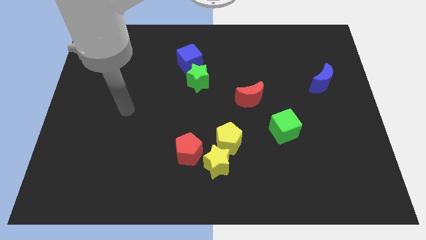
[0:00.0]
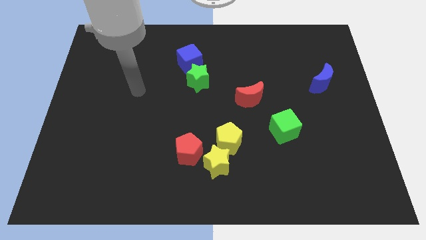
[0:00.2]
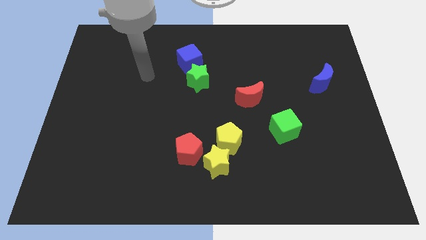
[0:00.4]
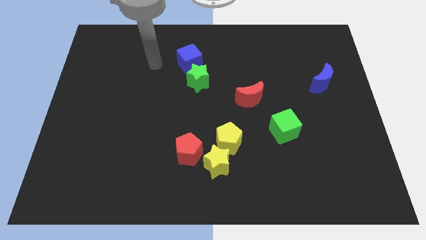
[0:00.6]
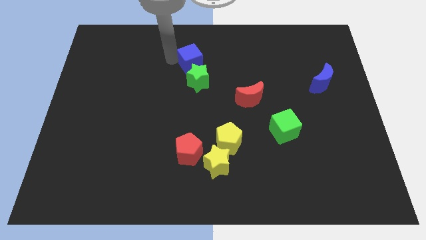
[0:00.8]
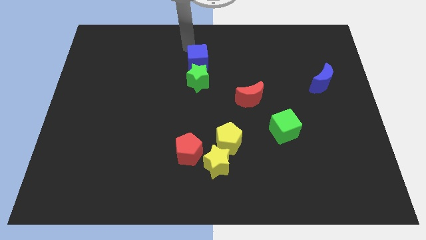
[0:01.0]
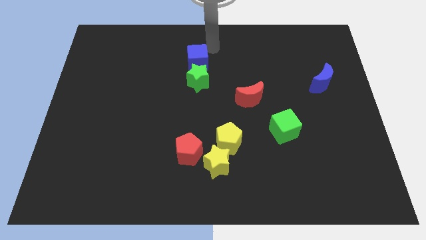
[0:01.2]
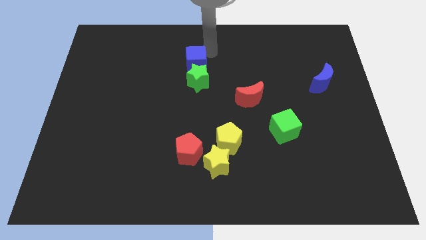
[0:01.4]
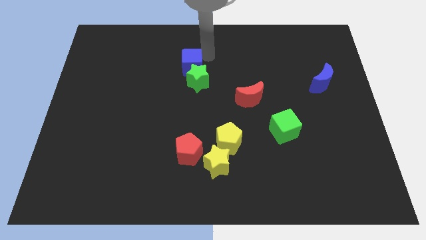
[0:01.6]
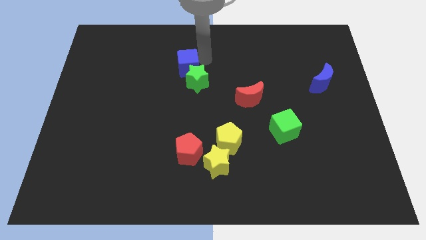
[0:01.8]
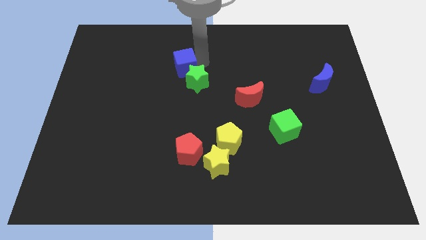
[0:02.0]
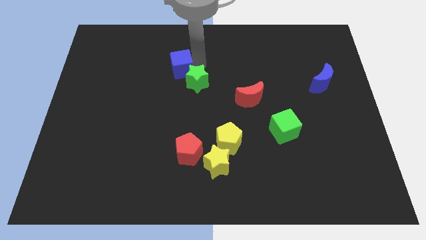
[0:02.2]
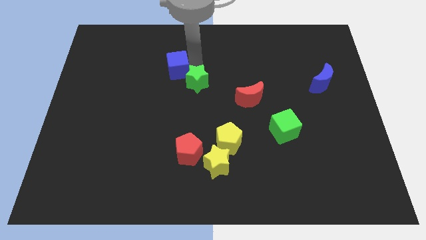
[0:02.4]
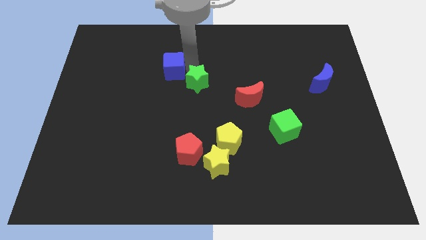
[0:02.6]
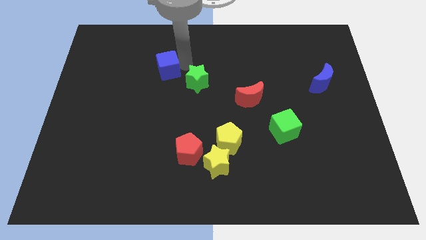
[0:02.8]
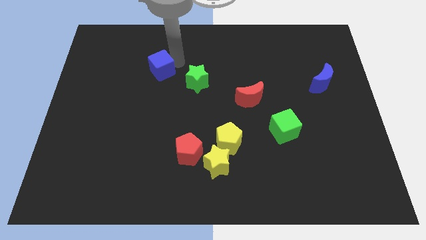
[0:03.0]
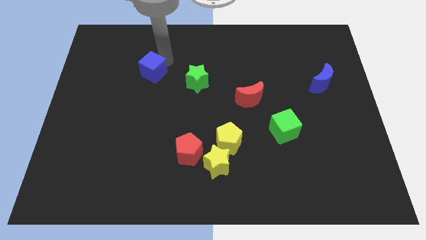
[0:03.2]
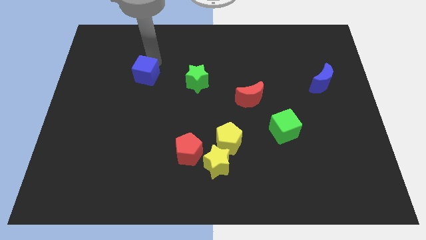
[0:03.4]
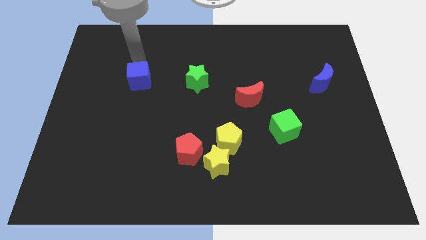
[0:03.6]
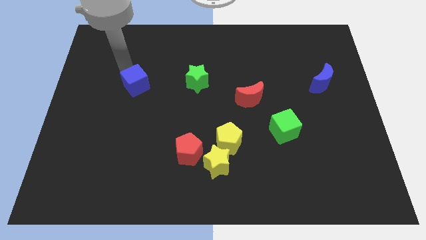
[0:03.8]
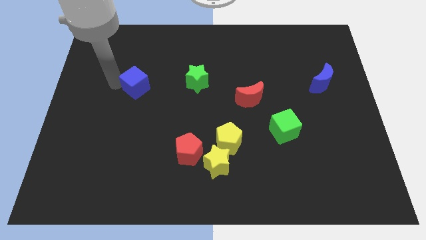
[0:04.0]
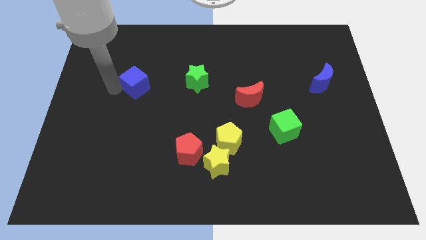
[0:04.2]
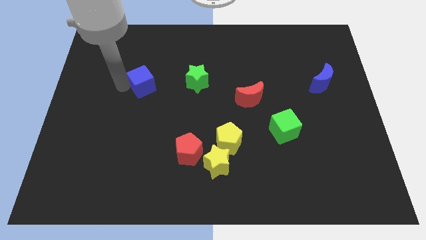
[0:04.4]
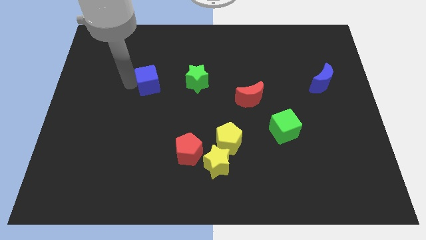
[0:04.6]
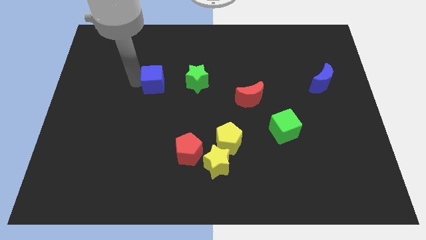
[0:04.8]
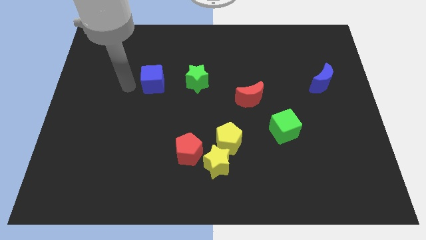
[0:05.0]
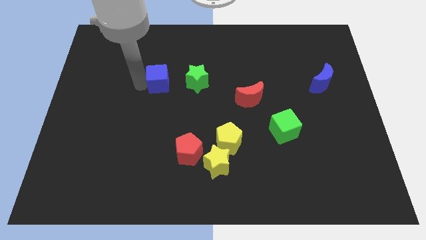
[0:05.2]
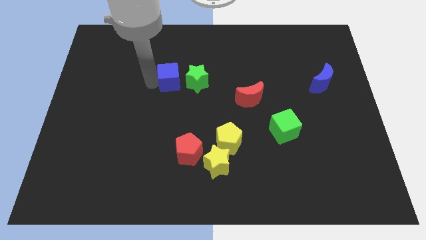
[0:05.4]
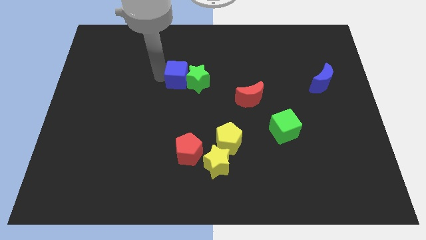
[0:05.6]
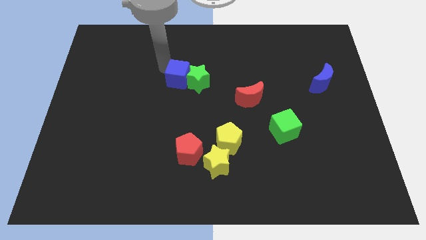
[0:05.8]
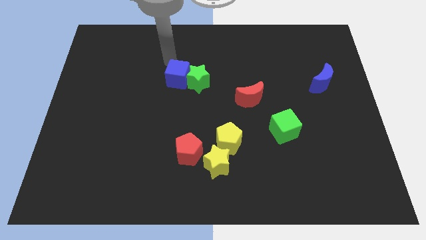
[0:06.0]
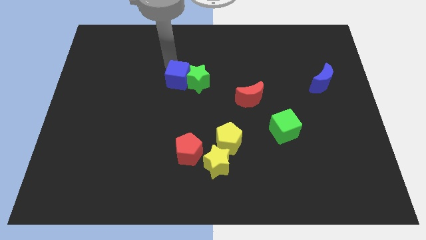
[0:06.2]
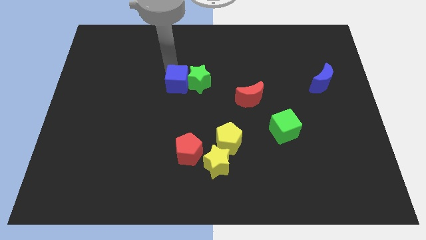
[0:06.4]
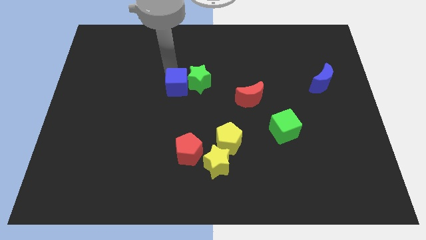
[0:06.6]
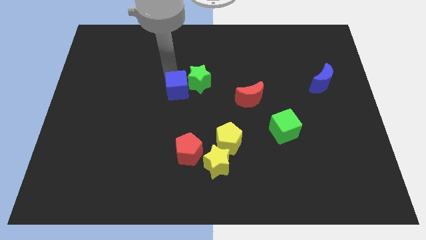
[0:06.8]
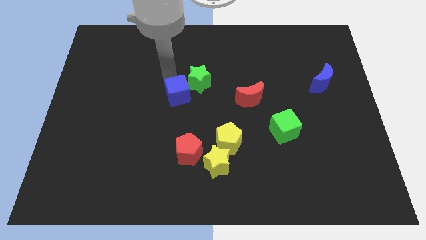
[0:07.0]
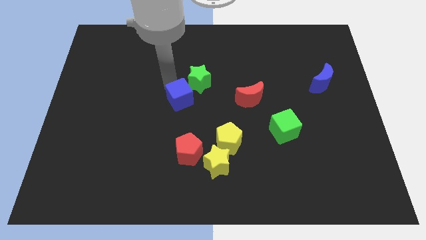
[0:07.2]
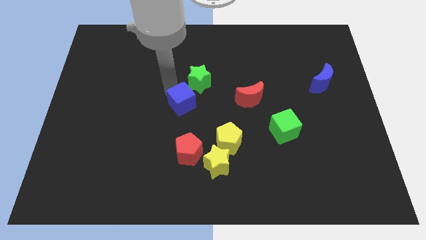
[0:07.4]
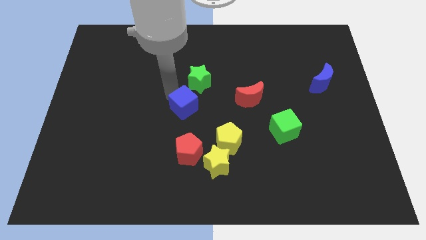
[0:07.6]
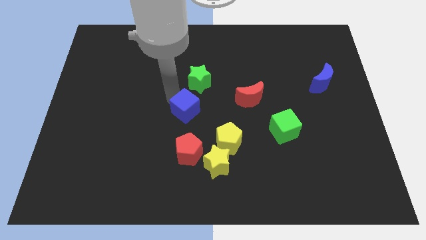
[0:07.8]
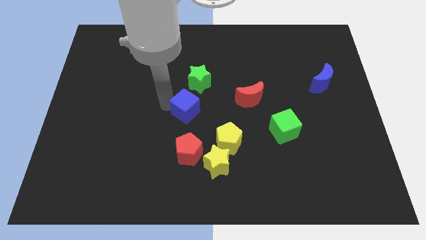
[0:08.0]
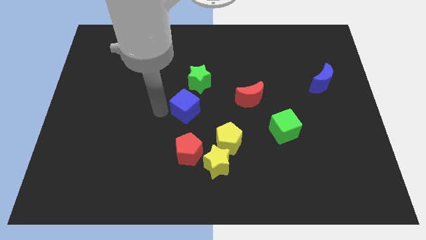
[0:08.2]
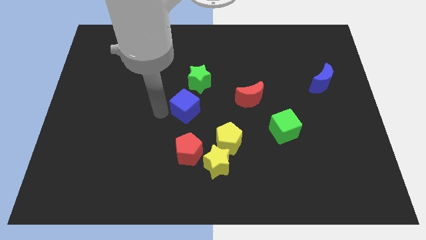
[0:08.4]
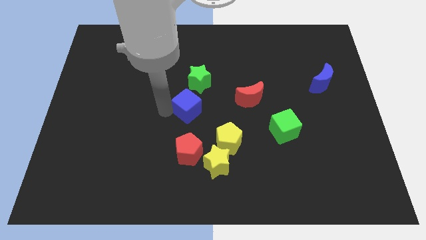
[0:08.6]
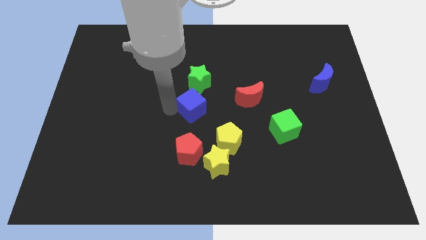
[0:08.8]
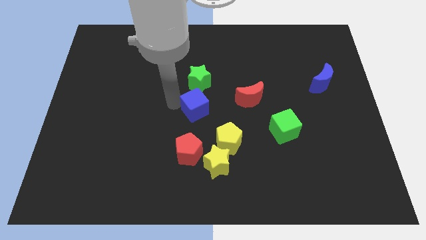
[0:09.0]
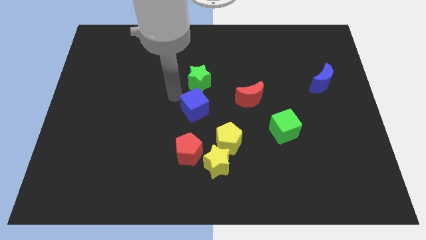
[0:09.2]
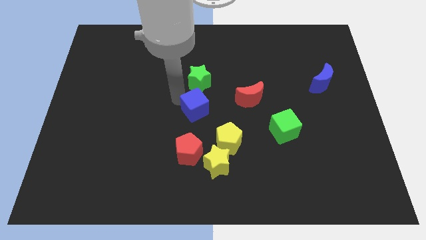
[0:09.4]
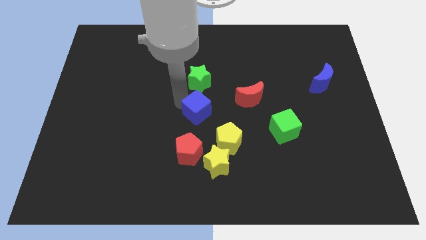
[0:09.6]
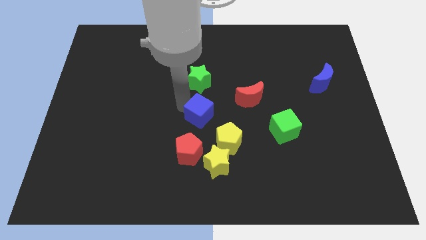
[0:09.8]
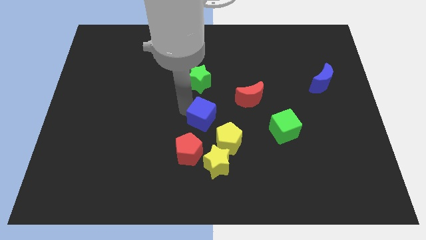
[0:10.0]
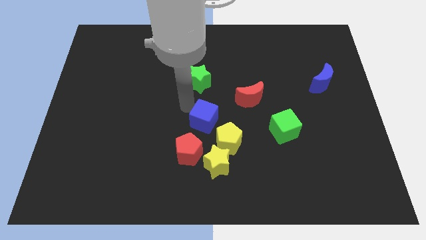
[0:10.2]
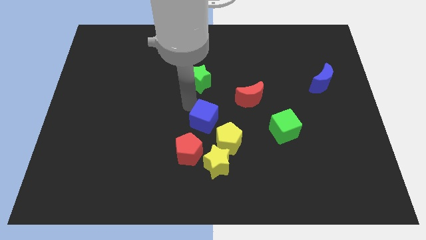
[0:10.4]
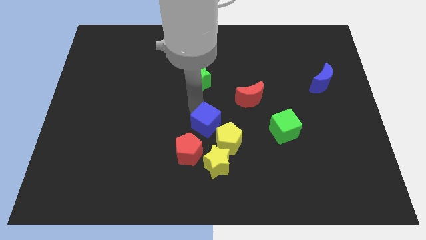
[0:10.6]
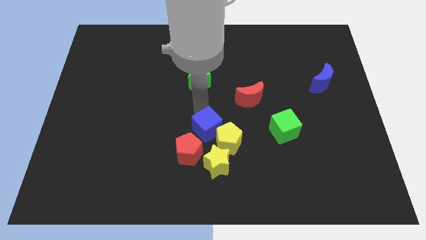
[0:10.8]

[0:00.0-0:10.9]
push the blue cube to the yellow pentagon

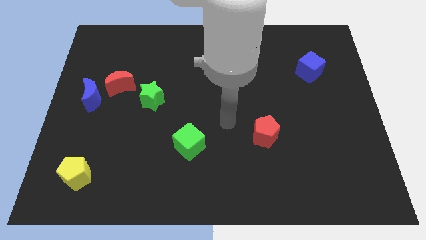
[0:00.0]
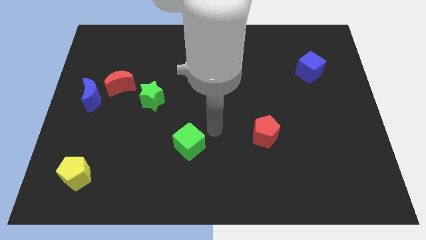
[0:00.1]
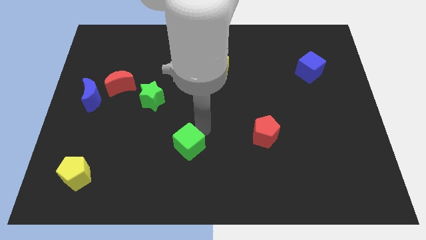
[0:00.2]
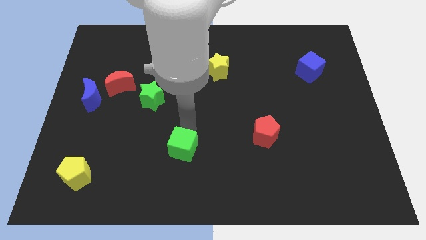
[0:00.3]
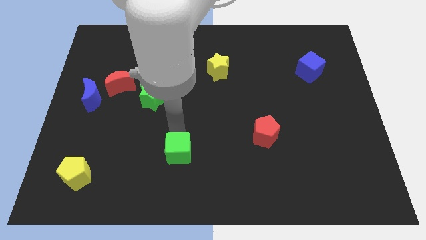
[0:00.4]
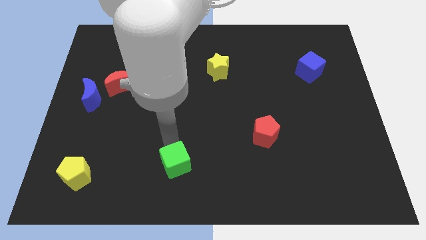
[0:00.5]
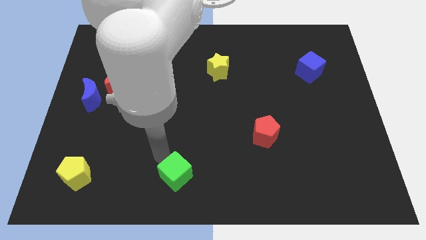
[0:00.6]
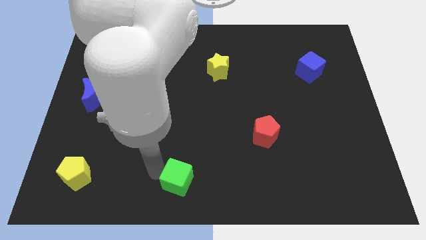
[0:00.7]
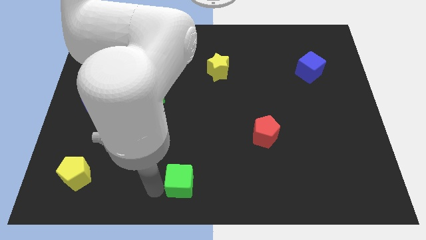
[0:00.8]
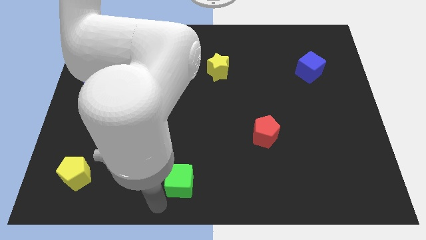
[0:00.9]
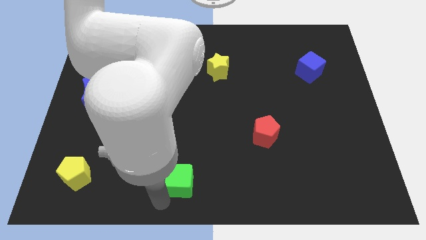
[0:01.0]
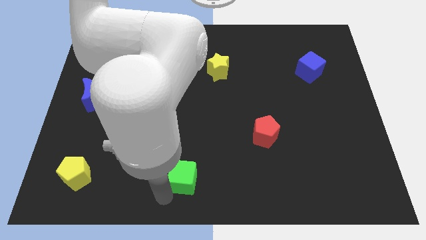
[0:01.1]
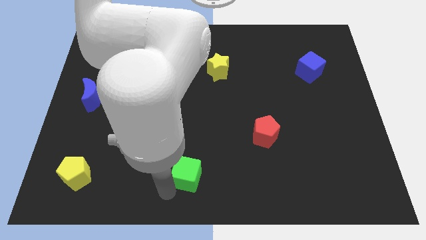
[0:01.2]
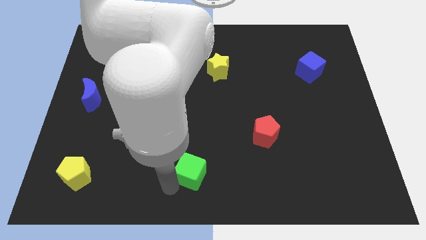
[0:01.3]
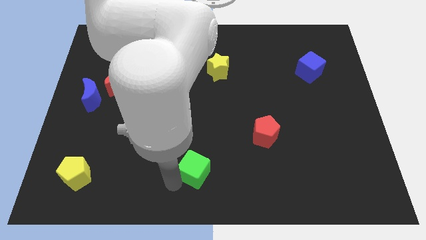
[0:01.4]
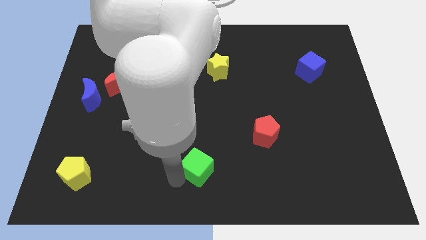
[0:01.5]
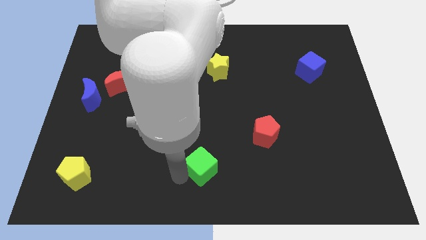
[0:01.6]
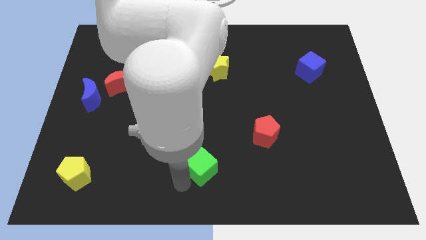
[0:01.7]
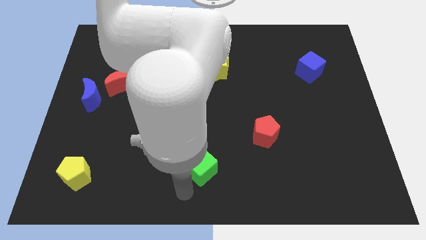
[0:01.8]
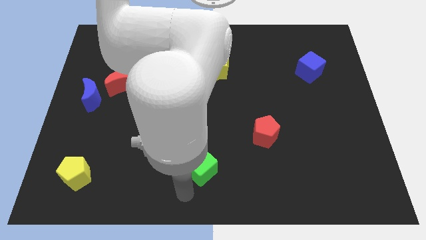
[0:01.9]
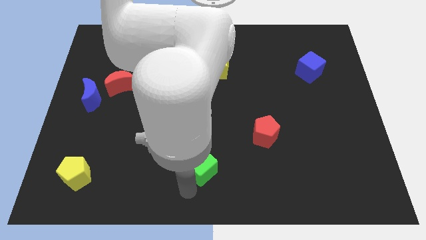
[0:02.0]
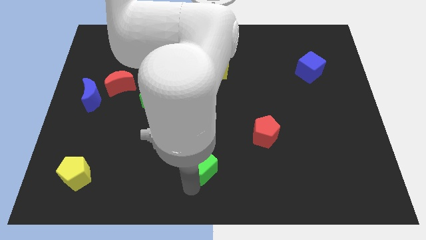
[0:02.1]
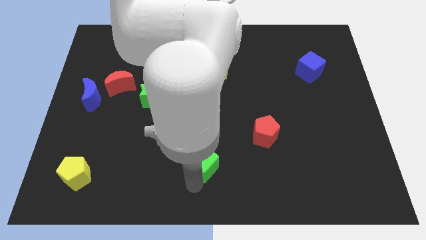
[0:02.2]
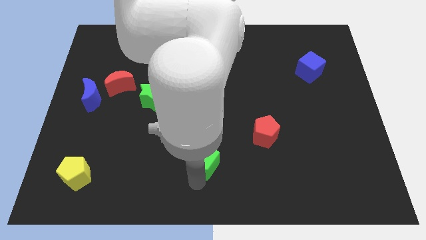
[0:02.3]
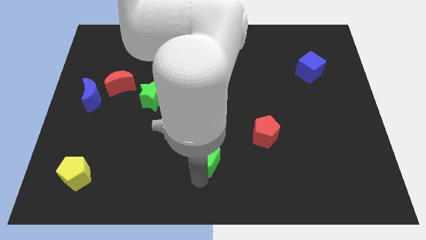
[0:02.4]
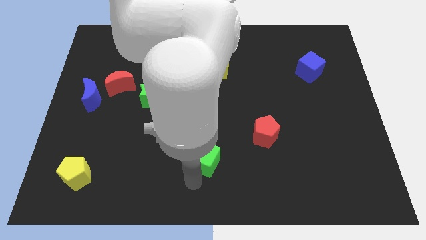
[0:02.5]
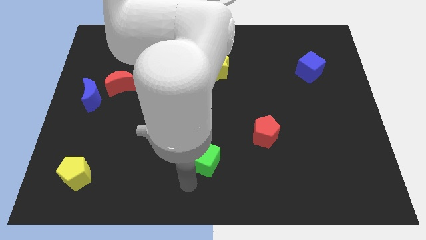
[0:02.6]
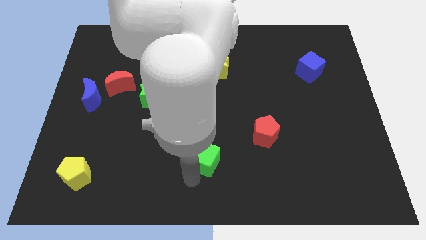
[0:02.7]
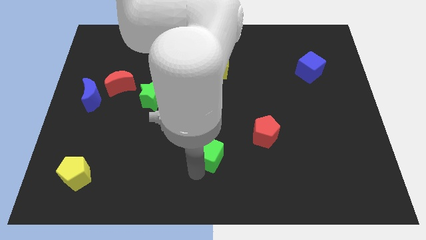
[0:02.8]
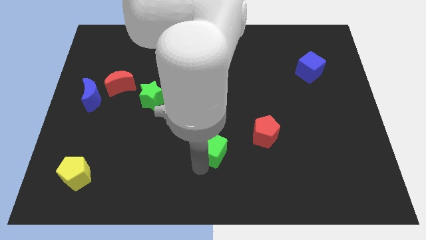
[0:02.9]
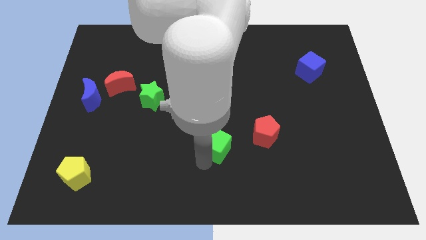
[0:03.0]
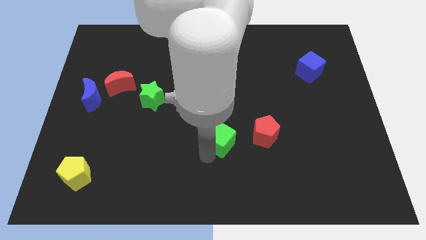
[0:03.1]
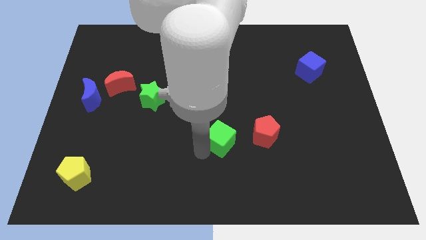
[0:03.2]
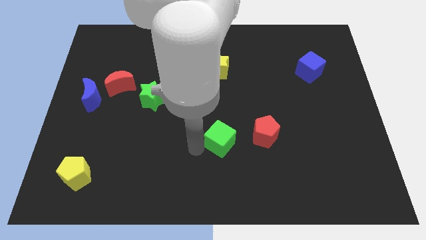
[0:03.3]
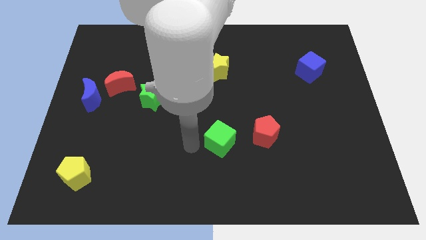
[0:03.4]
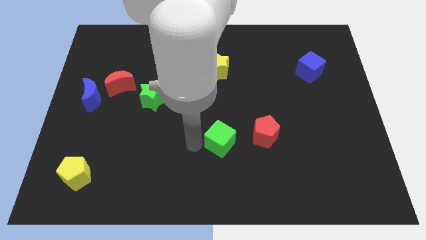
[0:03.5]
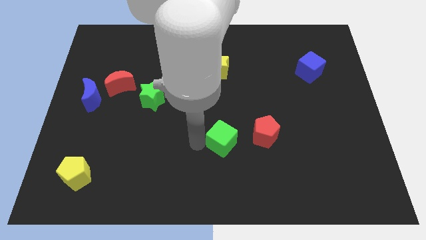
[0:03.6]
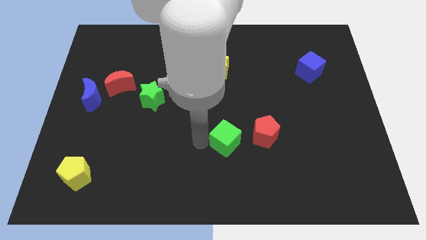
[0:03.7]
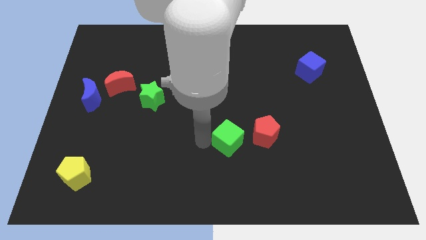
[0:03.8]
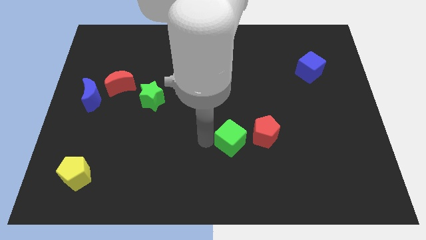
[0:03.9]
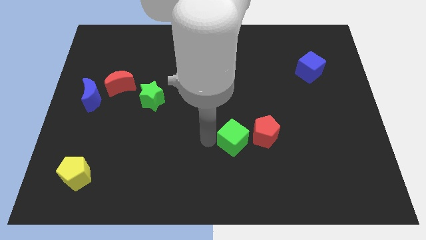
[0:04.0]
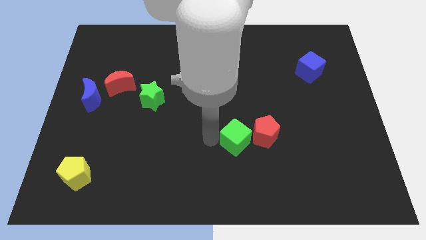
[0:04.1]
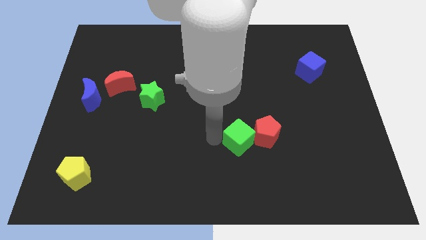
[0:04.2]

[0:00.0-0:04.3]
move the green cube to the red pentagon
